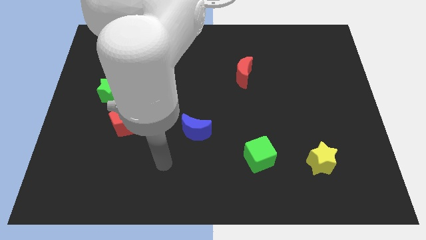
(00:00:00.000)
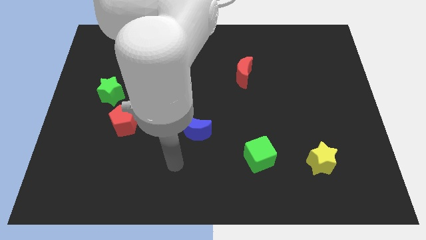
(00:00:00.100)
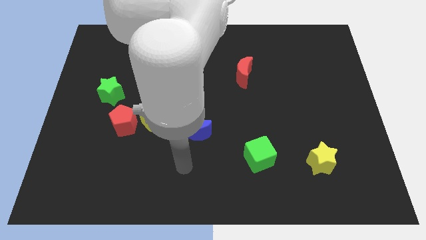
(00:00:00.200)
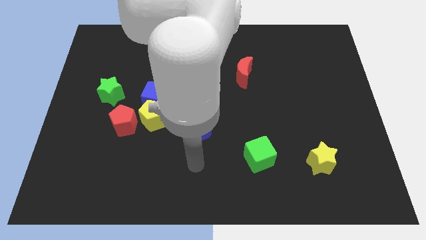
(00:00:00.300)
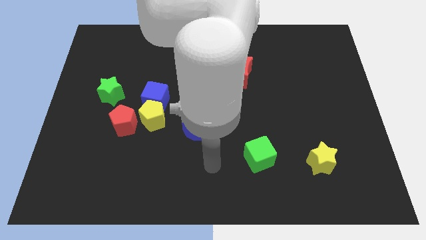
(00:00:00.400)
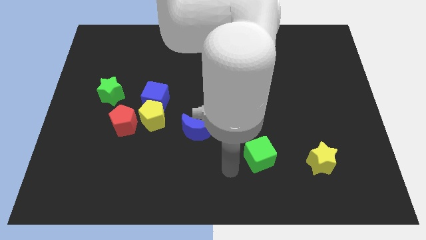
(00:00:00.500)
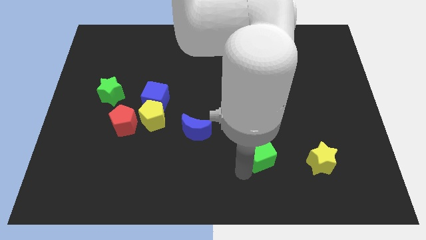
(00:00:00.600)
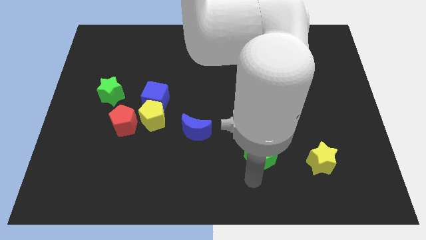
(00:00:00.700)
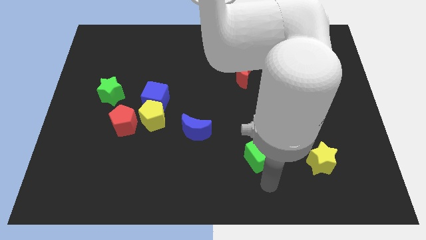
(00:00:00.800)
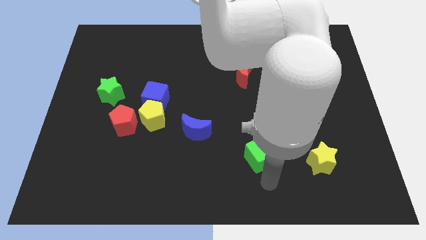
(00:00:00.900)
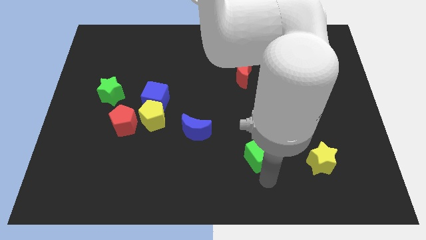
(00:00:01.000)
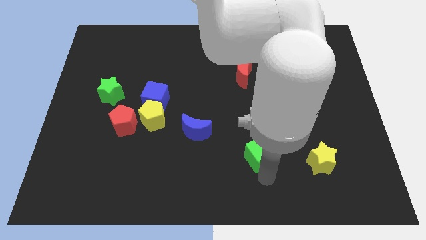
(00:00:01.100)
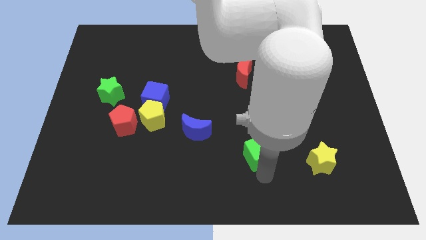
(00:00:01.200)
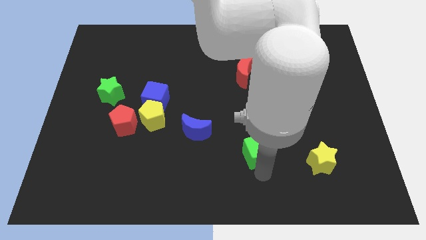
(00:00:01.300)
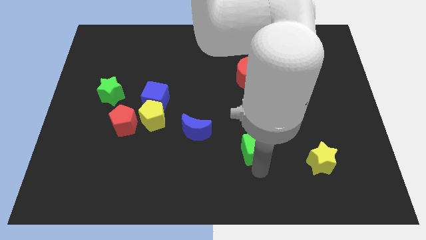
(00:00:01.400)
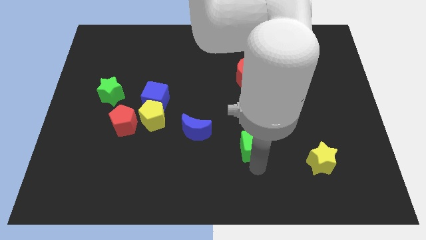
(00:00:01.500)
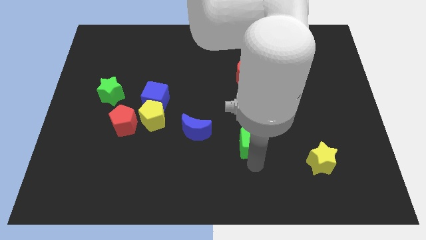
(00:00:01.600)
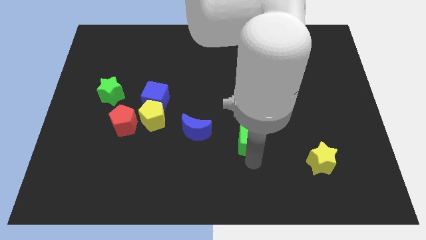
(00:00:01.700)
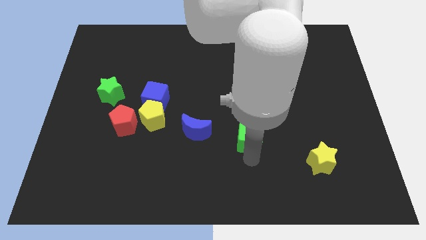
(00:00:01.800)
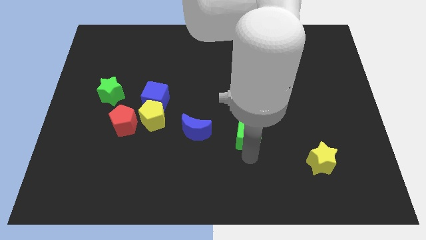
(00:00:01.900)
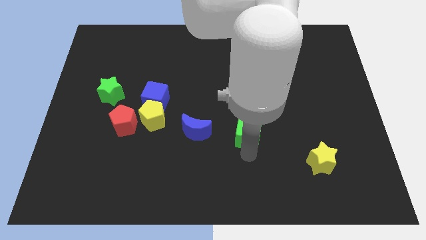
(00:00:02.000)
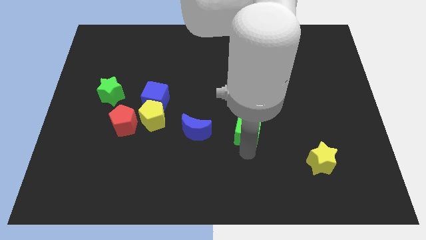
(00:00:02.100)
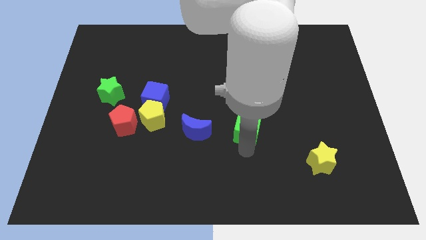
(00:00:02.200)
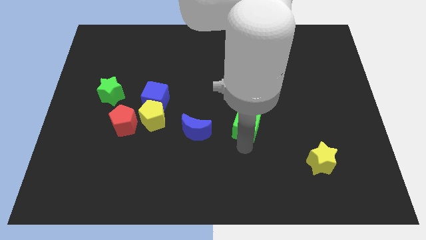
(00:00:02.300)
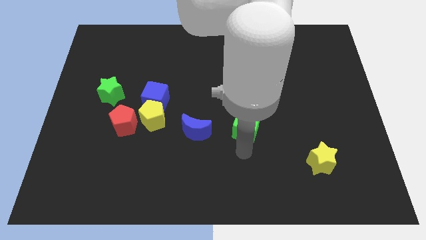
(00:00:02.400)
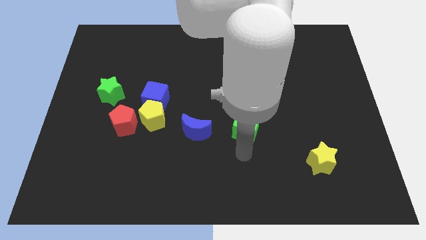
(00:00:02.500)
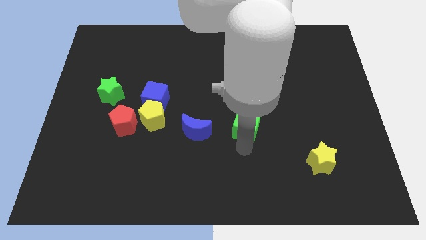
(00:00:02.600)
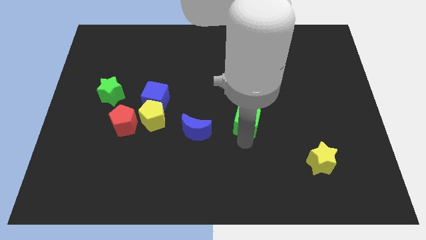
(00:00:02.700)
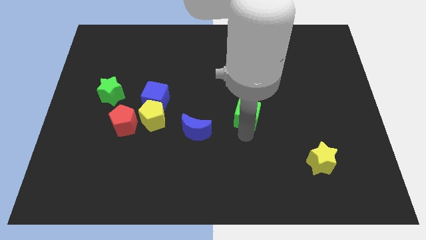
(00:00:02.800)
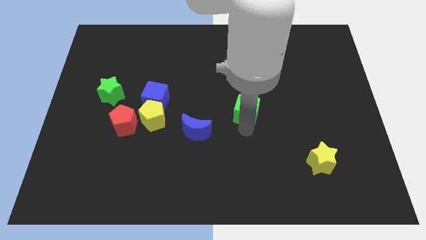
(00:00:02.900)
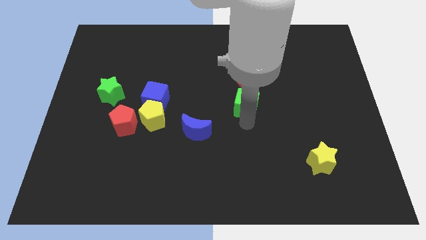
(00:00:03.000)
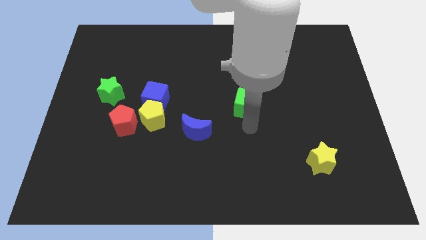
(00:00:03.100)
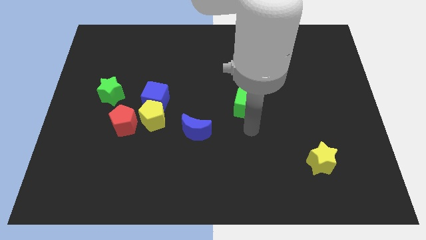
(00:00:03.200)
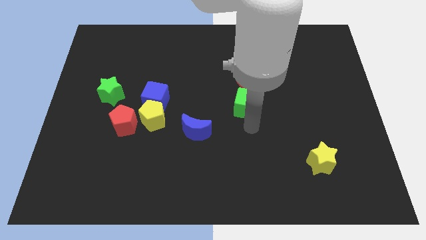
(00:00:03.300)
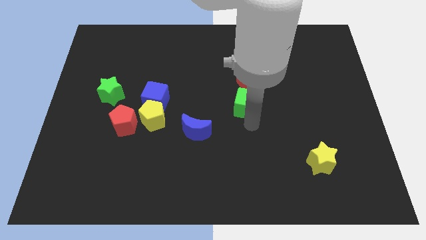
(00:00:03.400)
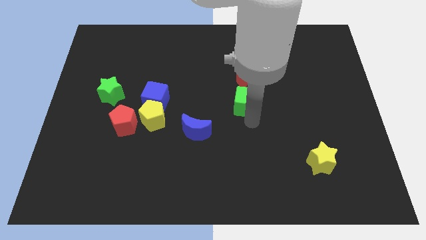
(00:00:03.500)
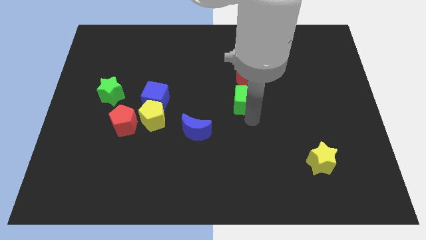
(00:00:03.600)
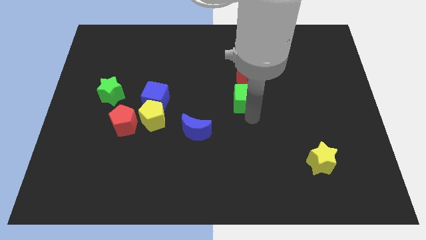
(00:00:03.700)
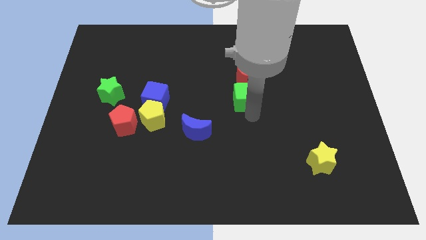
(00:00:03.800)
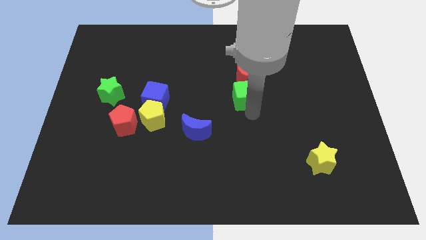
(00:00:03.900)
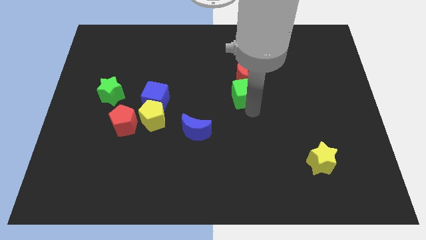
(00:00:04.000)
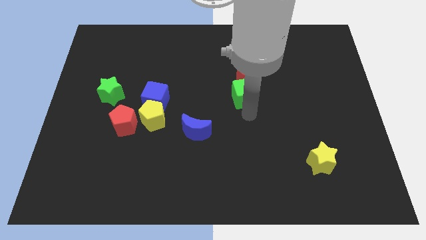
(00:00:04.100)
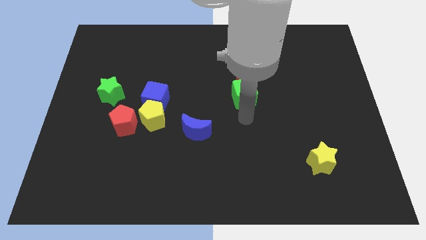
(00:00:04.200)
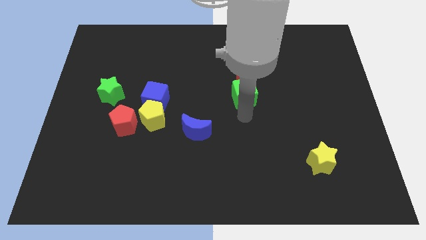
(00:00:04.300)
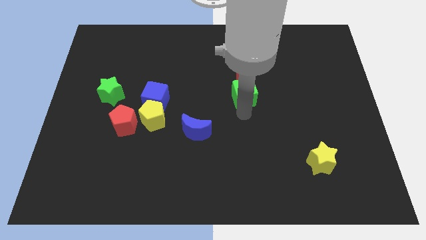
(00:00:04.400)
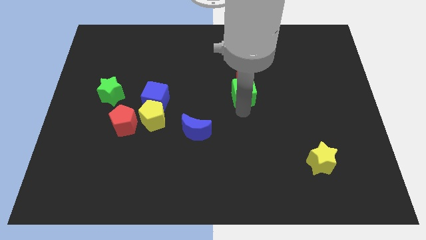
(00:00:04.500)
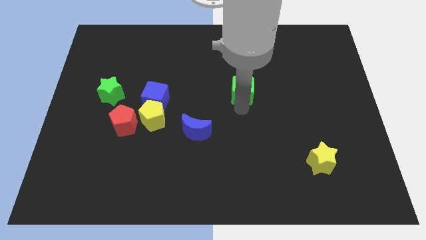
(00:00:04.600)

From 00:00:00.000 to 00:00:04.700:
push the green cube to the red moon

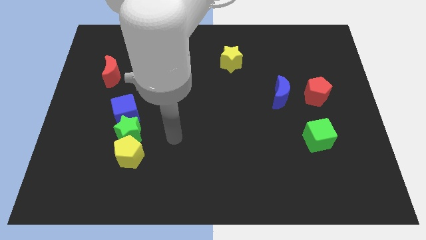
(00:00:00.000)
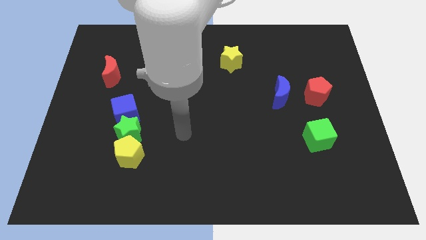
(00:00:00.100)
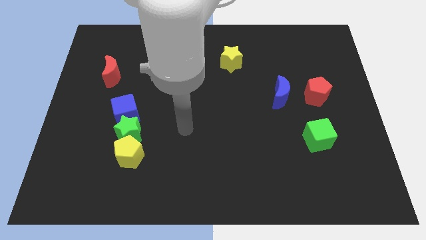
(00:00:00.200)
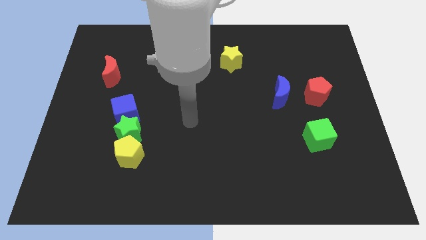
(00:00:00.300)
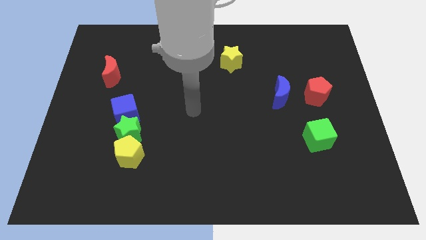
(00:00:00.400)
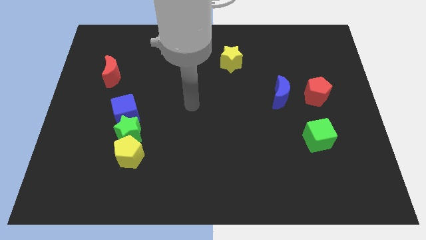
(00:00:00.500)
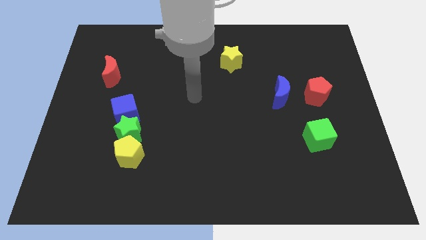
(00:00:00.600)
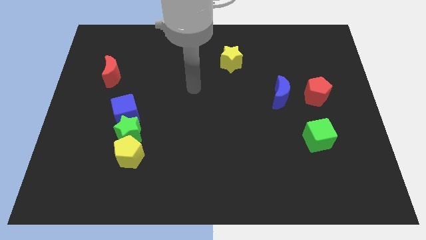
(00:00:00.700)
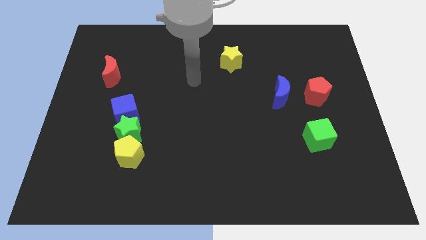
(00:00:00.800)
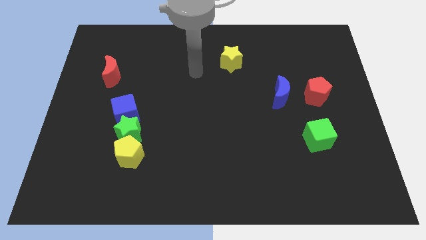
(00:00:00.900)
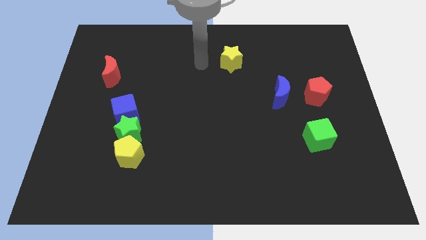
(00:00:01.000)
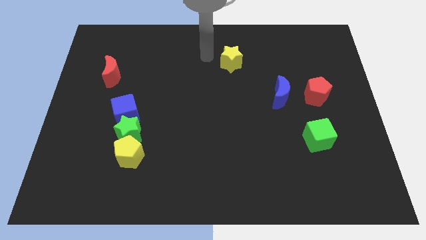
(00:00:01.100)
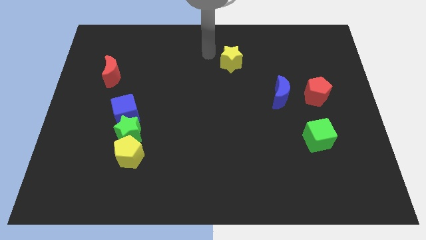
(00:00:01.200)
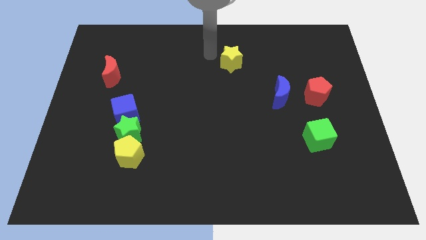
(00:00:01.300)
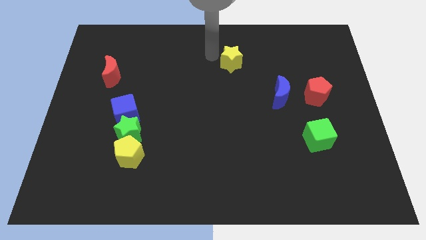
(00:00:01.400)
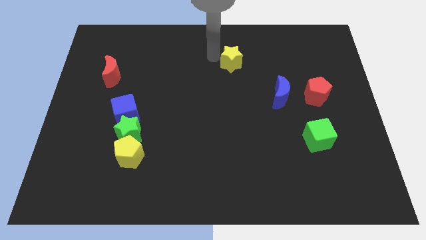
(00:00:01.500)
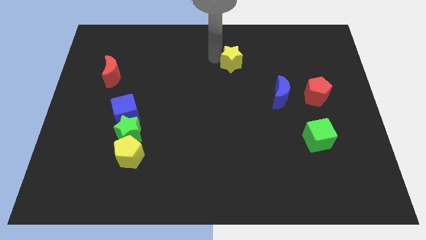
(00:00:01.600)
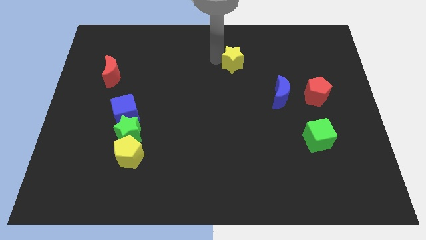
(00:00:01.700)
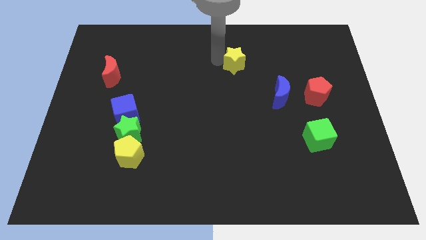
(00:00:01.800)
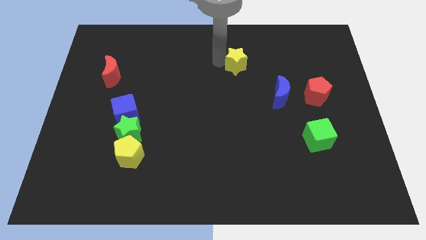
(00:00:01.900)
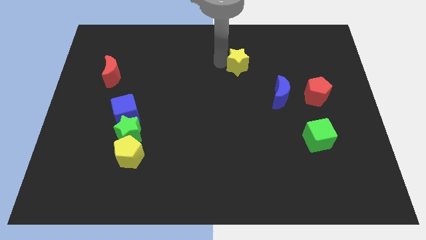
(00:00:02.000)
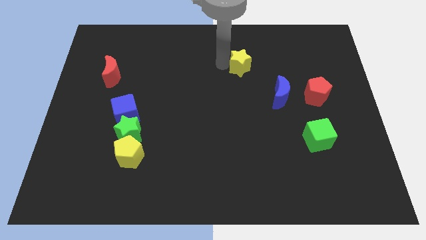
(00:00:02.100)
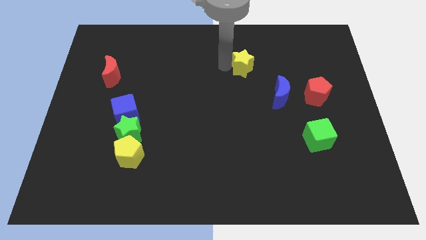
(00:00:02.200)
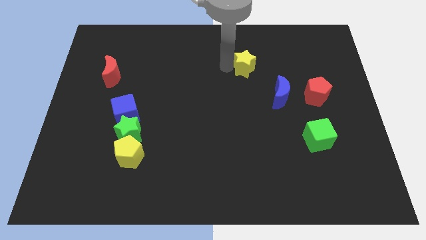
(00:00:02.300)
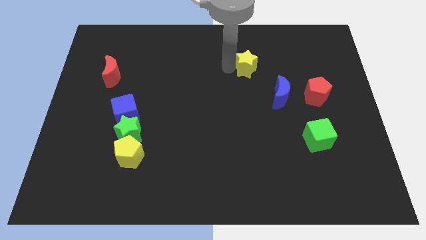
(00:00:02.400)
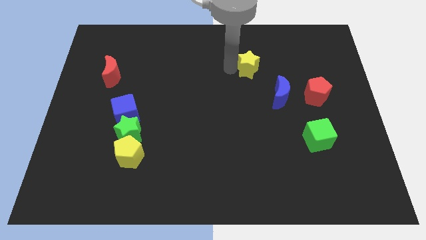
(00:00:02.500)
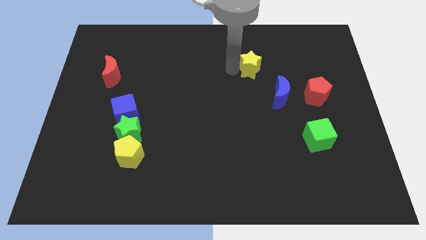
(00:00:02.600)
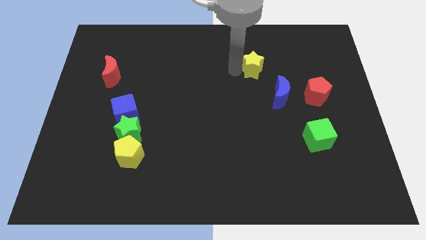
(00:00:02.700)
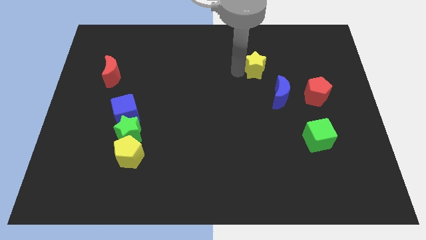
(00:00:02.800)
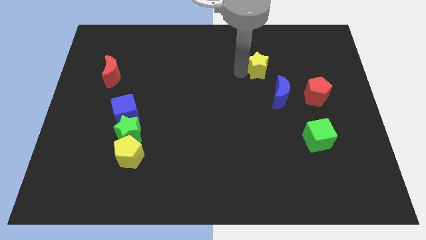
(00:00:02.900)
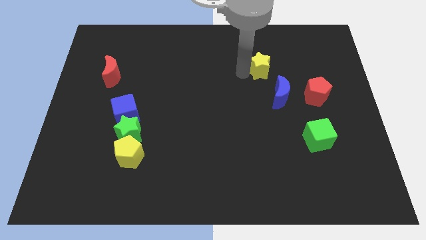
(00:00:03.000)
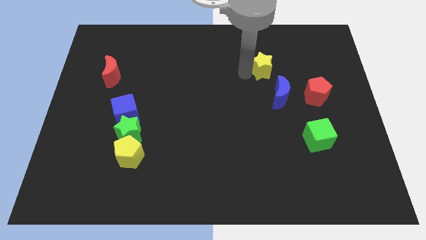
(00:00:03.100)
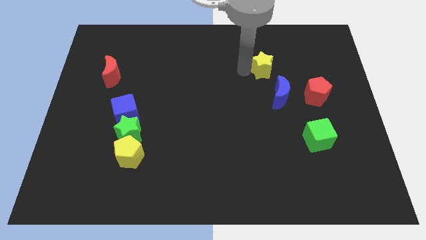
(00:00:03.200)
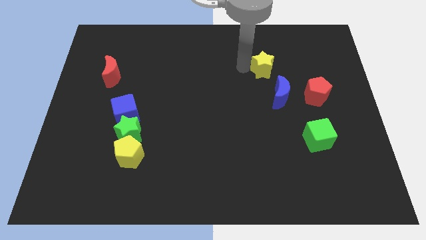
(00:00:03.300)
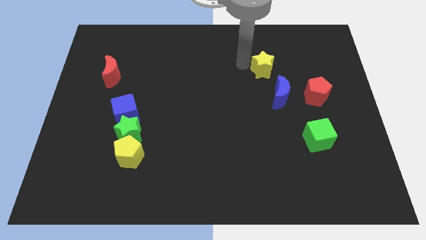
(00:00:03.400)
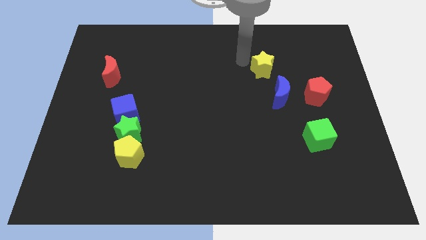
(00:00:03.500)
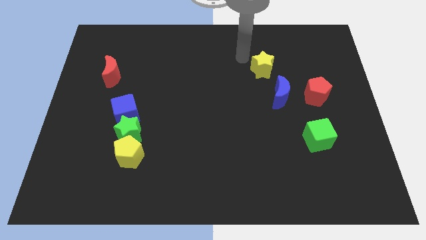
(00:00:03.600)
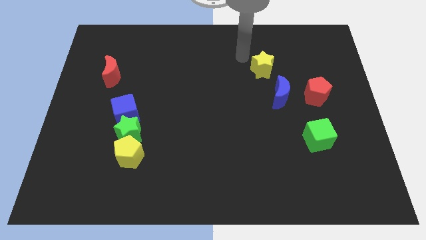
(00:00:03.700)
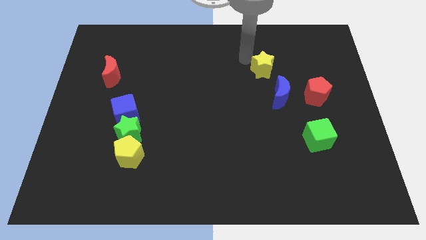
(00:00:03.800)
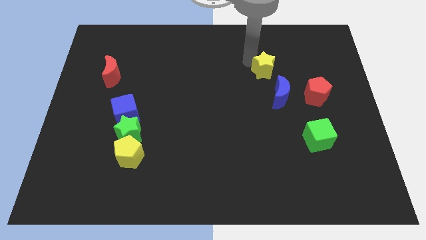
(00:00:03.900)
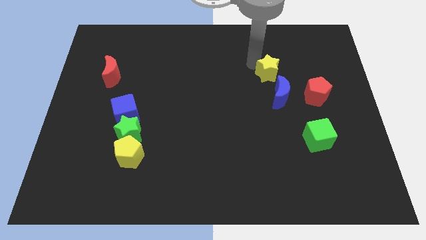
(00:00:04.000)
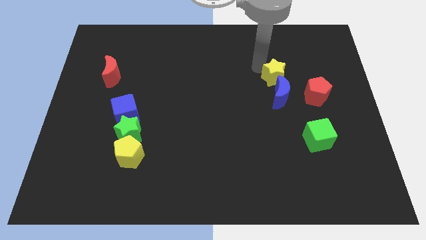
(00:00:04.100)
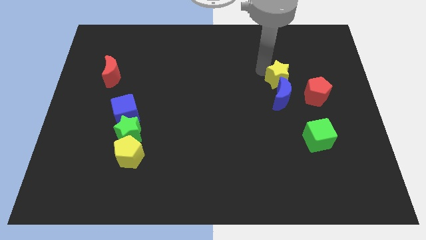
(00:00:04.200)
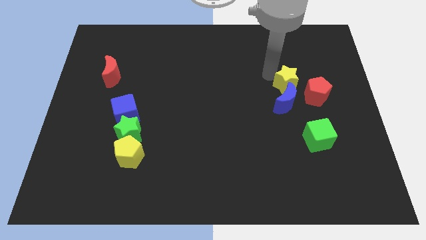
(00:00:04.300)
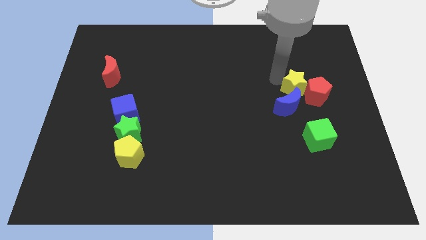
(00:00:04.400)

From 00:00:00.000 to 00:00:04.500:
slide the yellow star to the red pentagon
